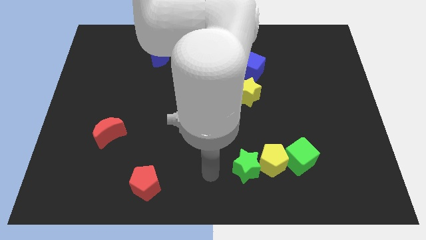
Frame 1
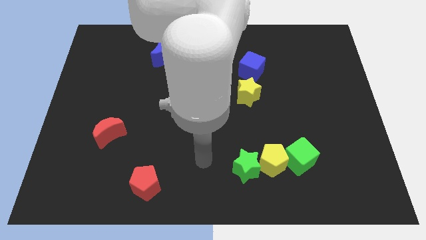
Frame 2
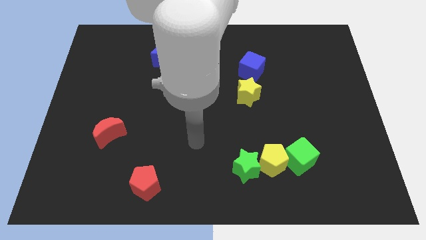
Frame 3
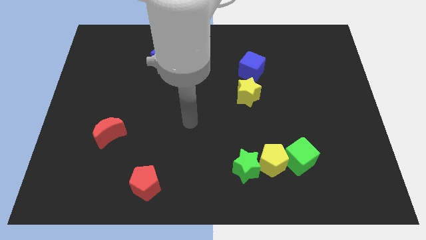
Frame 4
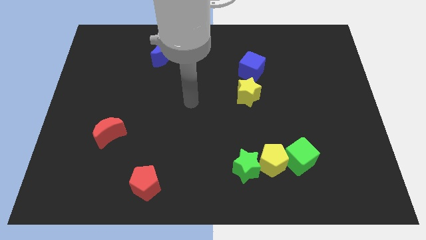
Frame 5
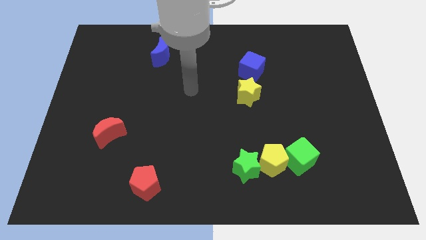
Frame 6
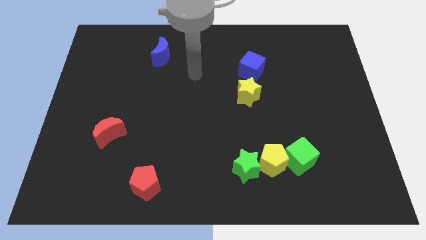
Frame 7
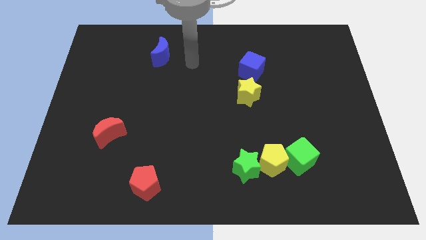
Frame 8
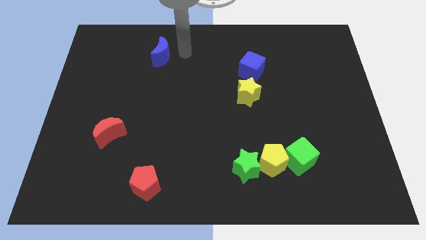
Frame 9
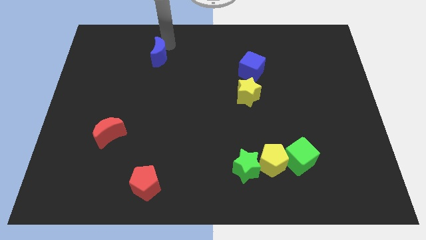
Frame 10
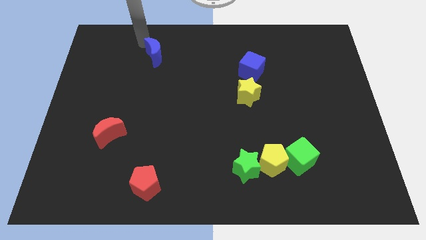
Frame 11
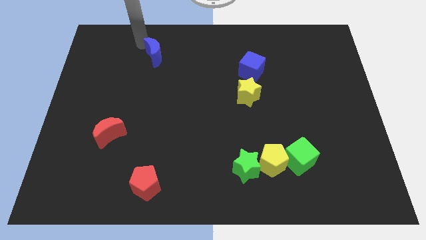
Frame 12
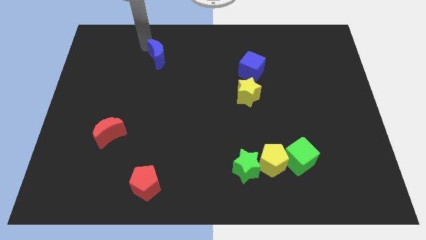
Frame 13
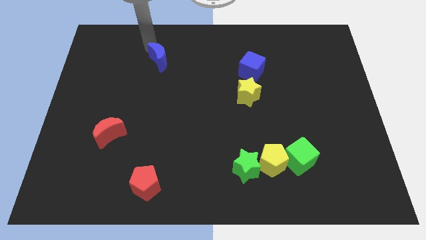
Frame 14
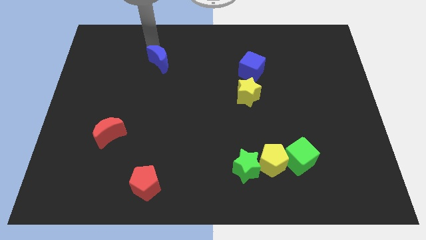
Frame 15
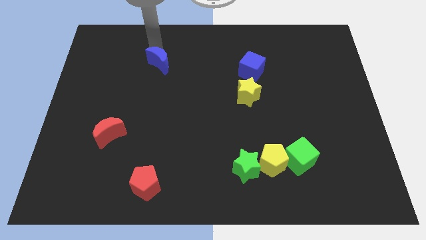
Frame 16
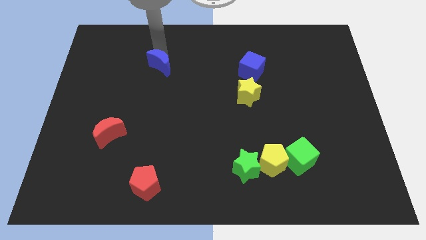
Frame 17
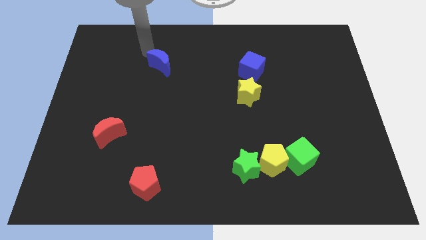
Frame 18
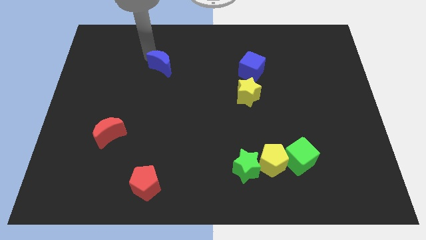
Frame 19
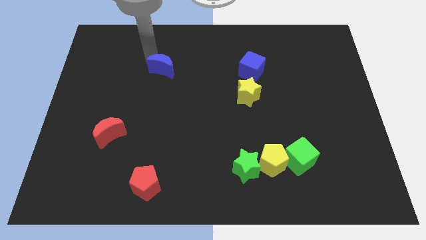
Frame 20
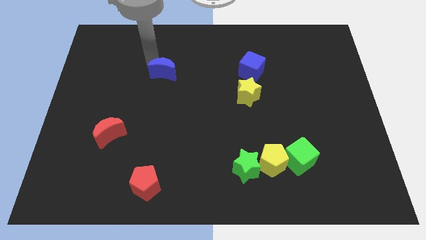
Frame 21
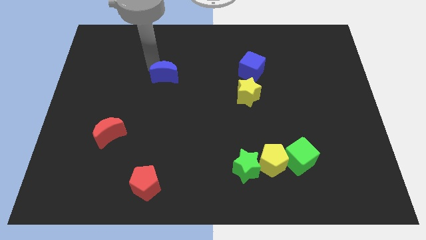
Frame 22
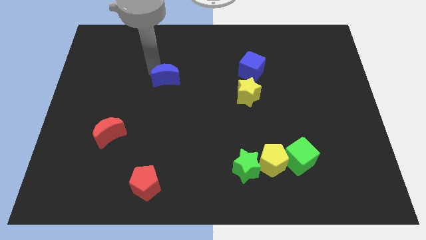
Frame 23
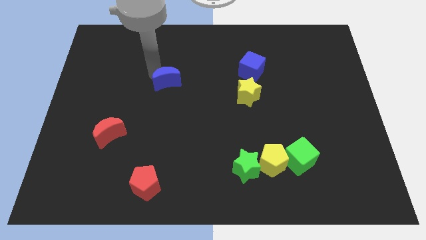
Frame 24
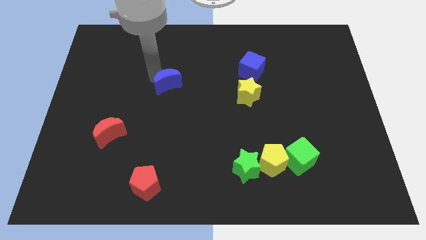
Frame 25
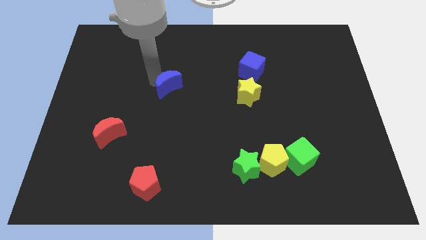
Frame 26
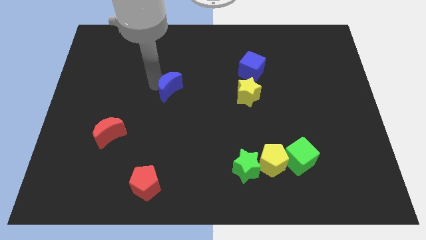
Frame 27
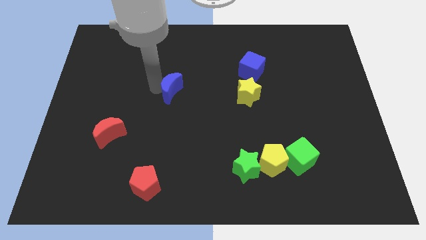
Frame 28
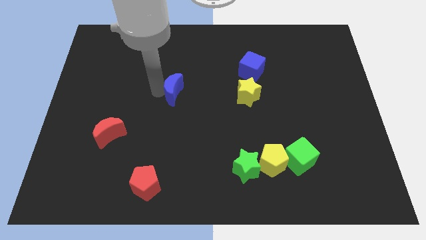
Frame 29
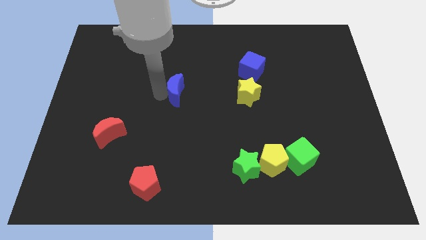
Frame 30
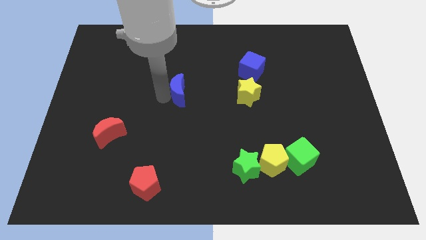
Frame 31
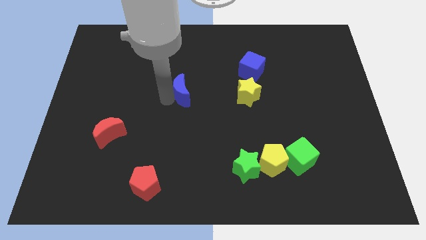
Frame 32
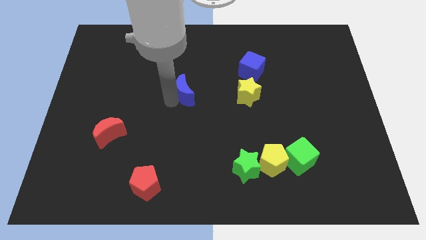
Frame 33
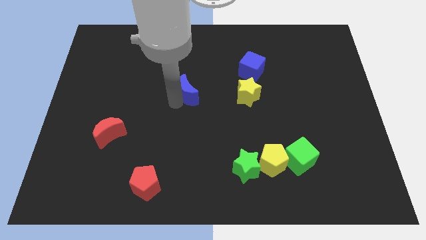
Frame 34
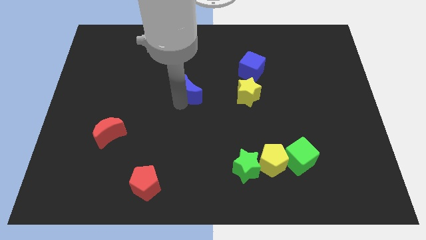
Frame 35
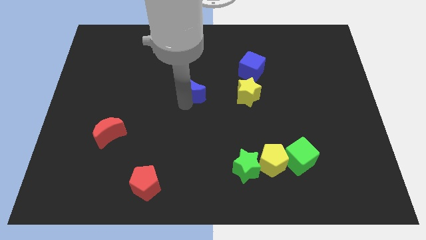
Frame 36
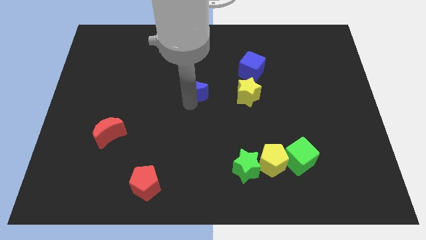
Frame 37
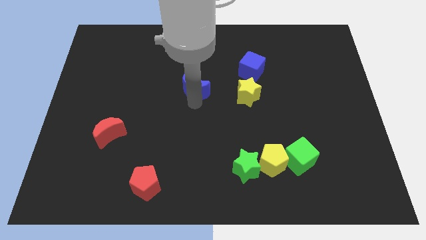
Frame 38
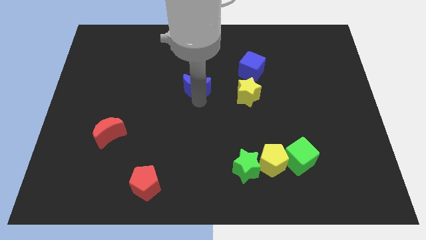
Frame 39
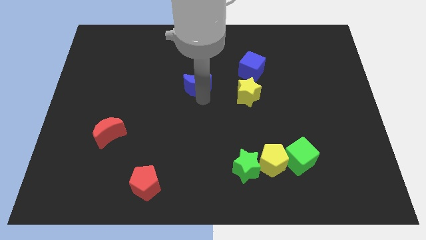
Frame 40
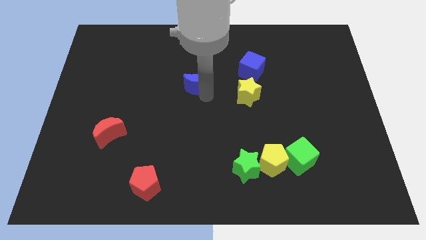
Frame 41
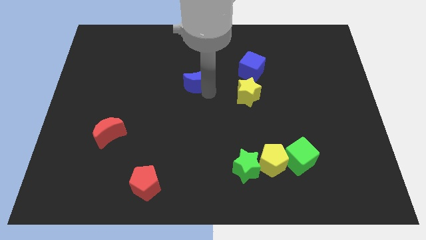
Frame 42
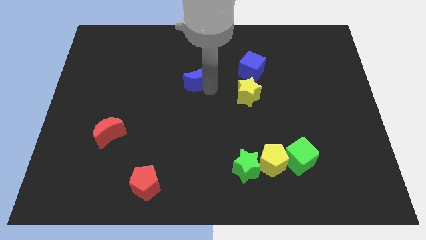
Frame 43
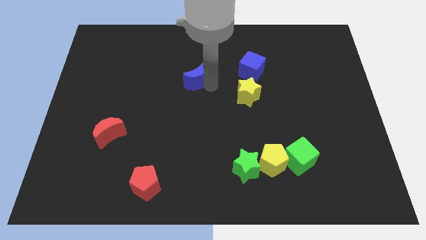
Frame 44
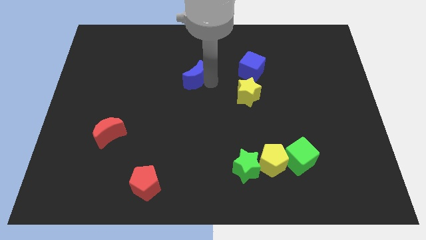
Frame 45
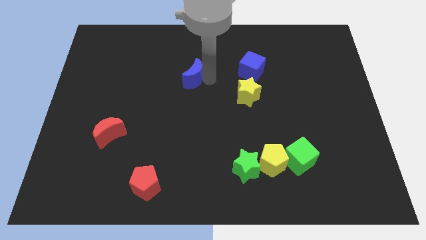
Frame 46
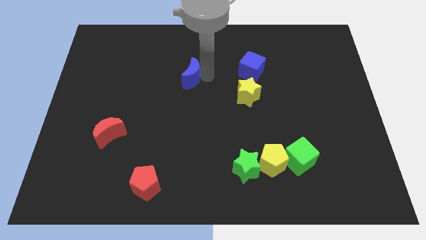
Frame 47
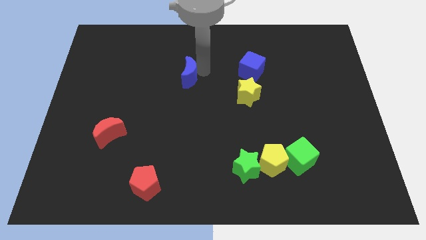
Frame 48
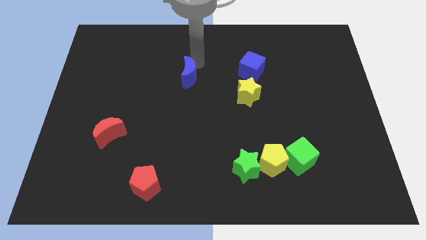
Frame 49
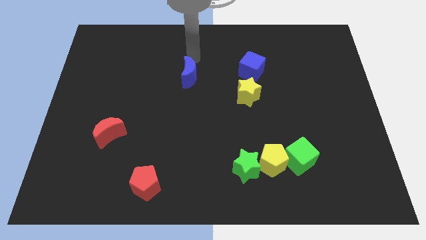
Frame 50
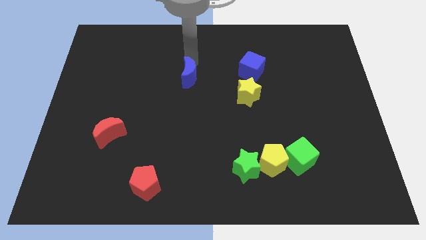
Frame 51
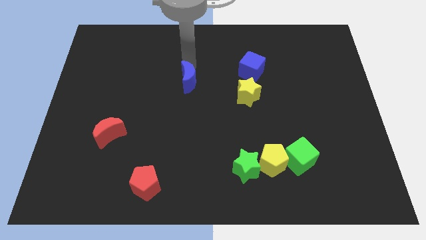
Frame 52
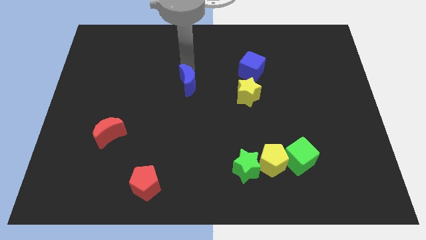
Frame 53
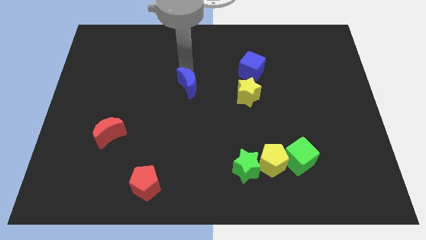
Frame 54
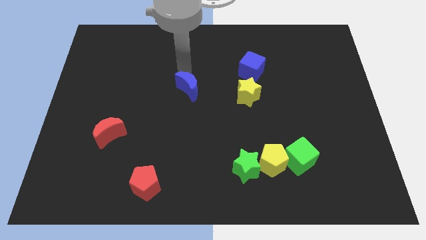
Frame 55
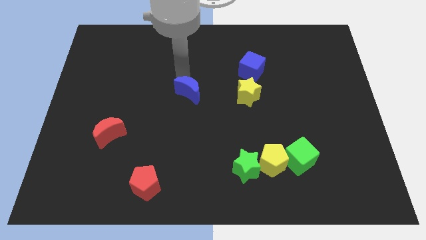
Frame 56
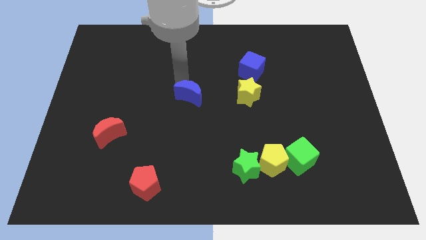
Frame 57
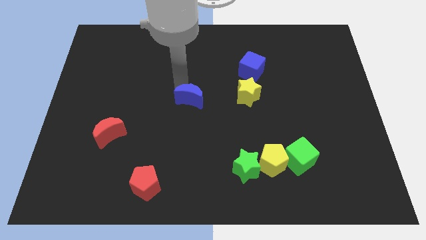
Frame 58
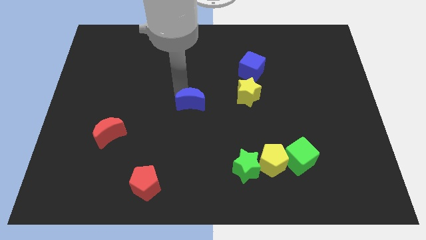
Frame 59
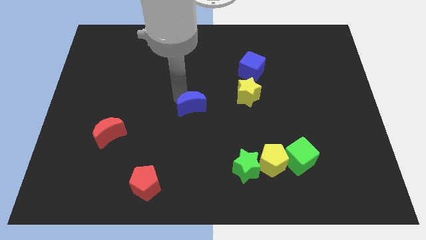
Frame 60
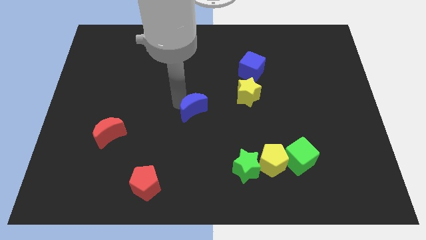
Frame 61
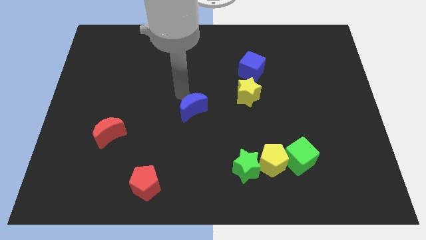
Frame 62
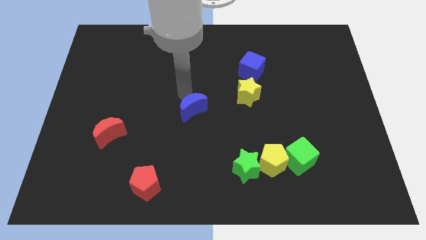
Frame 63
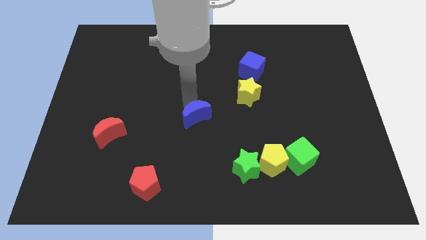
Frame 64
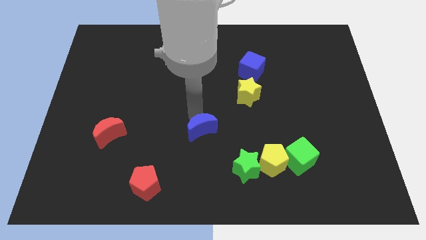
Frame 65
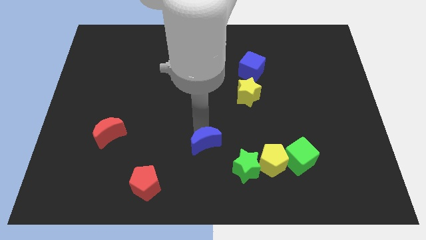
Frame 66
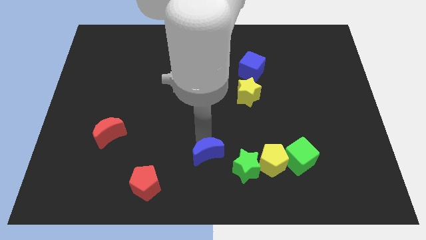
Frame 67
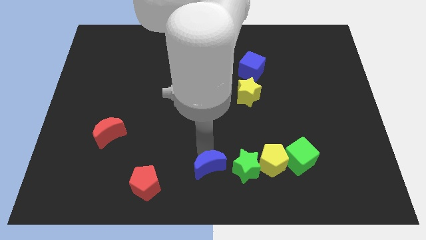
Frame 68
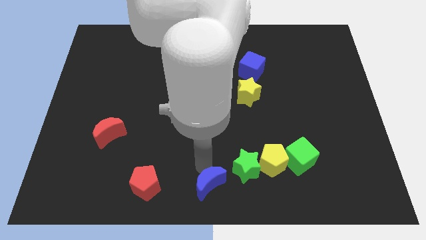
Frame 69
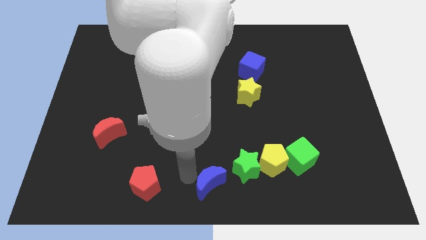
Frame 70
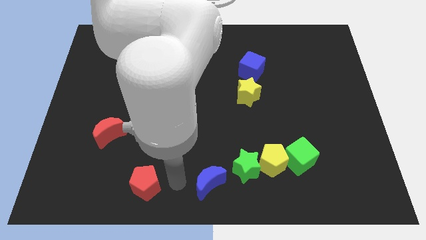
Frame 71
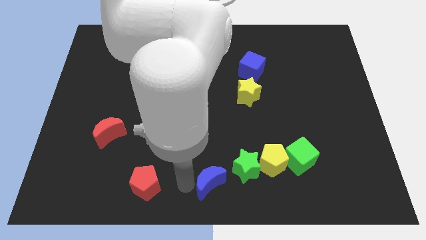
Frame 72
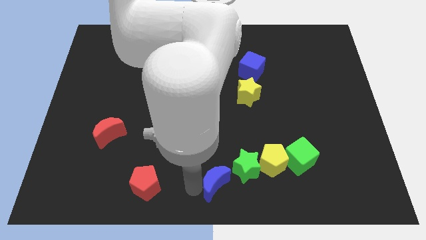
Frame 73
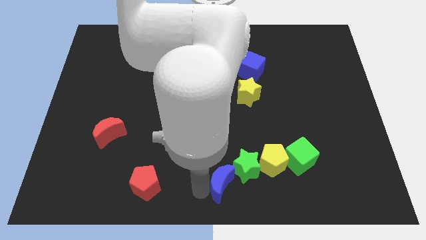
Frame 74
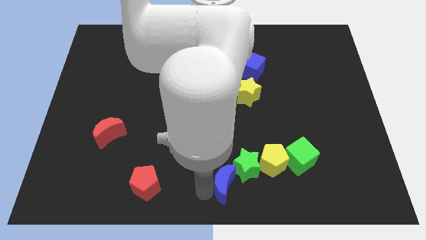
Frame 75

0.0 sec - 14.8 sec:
move the blue moon to the bottom left side of the yellow pentagon

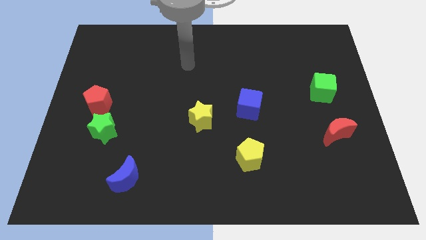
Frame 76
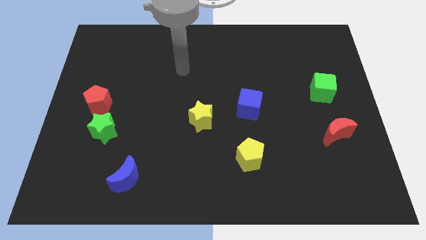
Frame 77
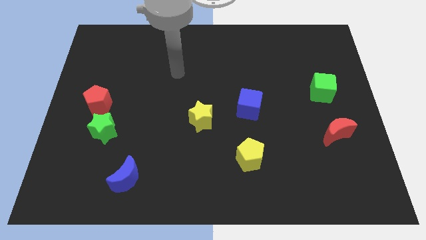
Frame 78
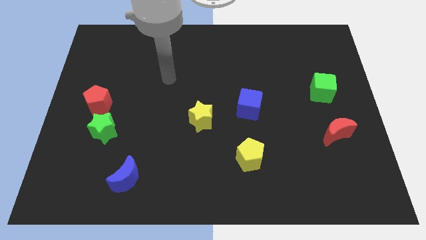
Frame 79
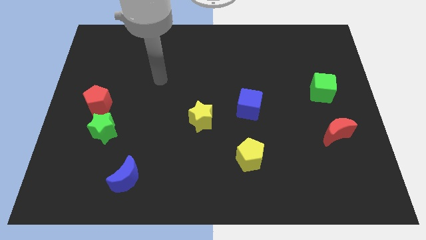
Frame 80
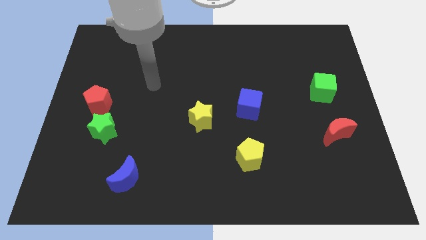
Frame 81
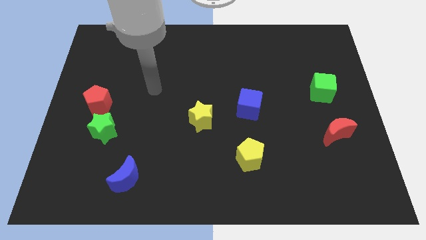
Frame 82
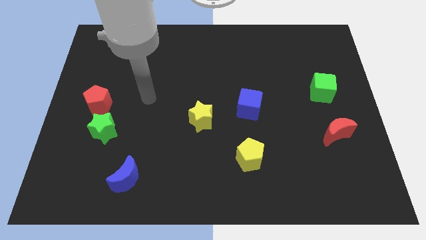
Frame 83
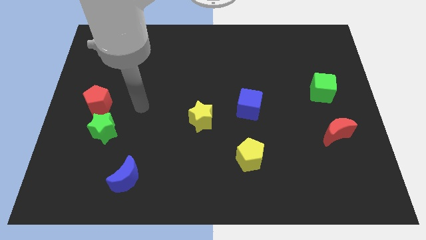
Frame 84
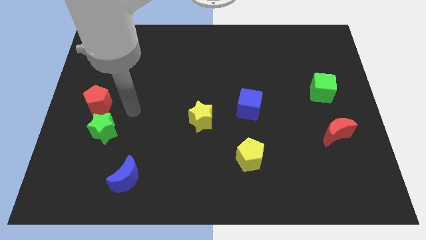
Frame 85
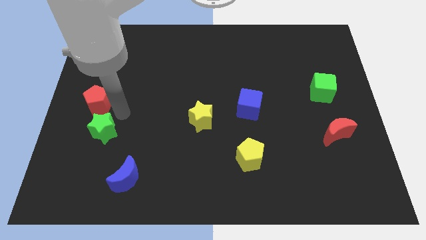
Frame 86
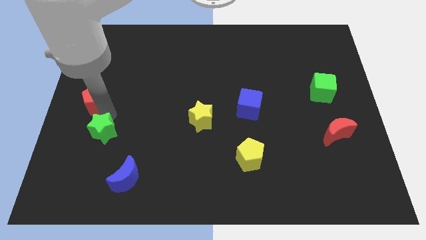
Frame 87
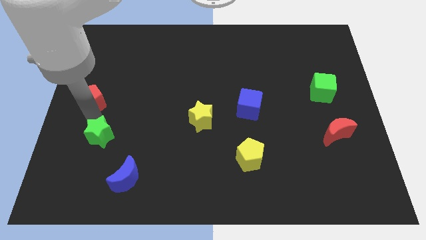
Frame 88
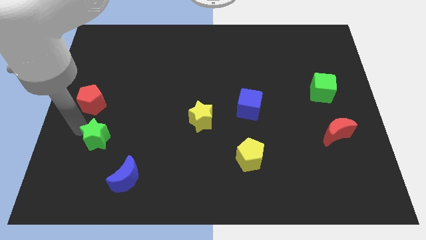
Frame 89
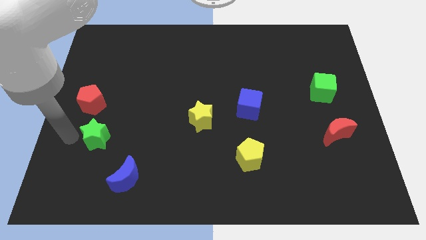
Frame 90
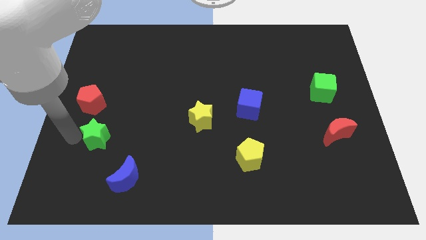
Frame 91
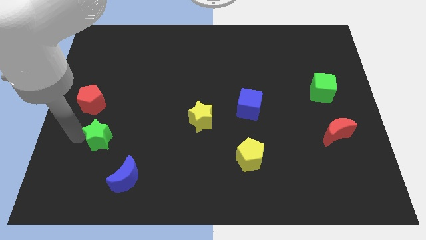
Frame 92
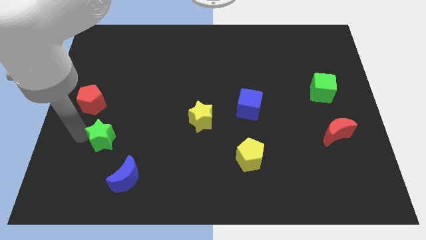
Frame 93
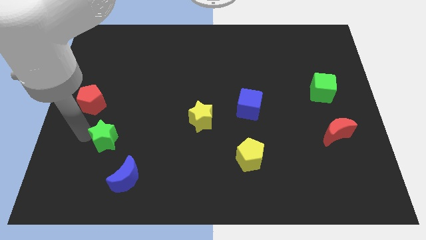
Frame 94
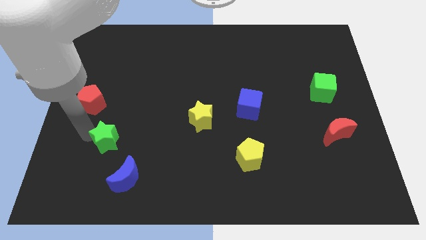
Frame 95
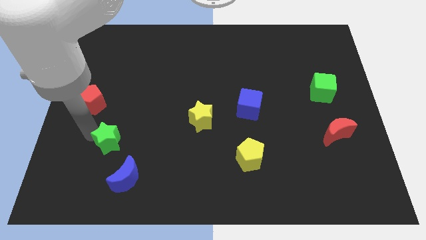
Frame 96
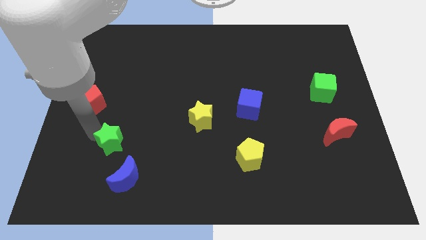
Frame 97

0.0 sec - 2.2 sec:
push the green star above the blue moon
